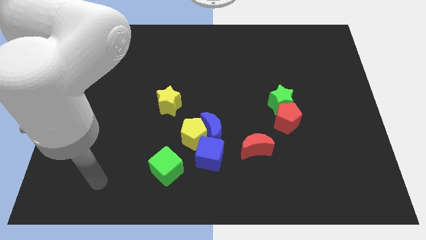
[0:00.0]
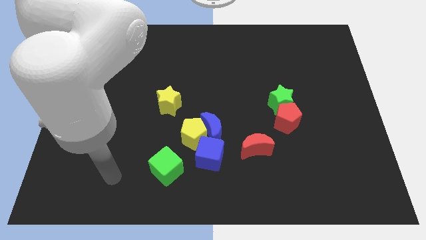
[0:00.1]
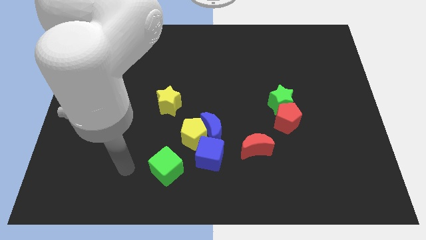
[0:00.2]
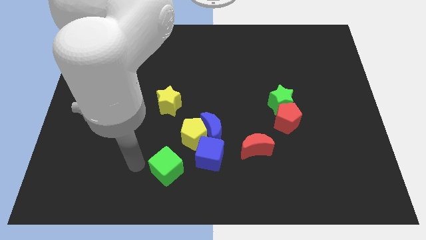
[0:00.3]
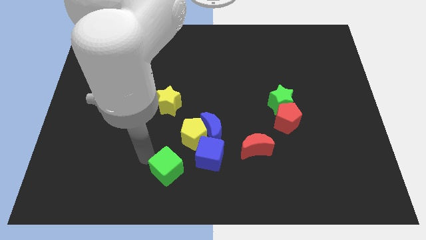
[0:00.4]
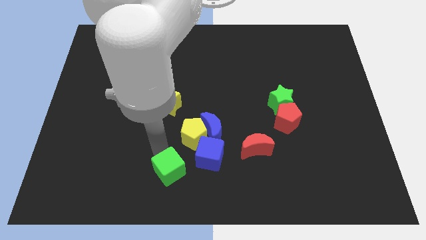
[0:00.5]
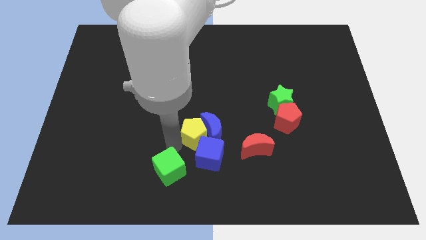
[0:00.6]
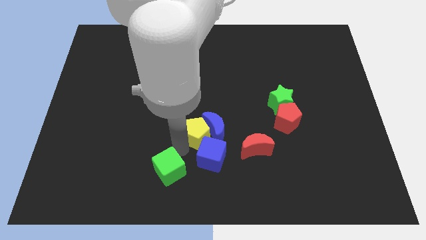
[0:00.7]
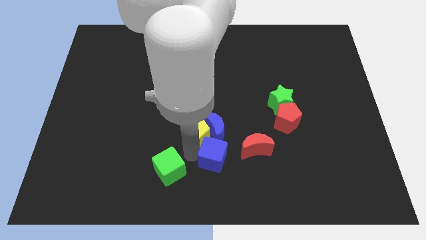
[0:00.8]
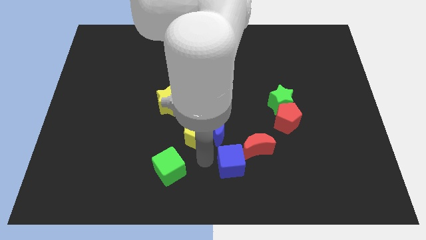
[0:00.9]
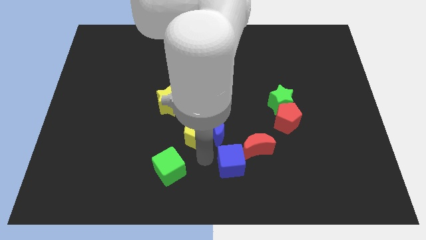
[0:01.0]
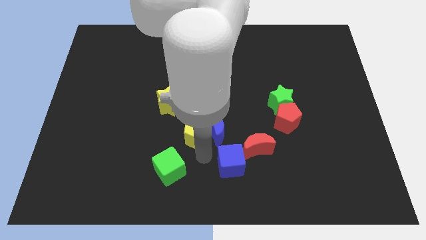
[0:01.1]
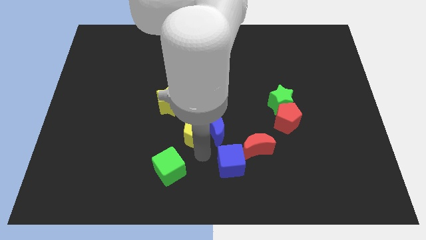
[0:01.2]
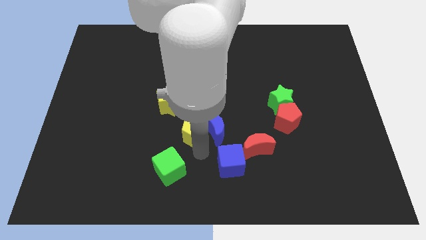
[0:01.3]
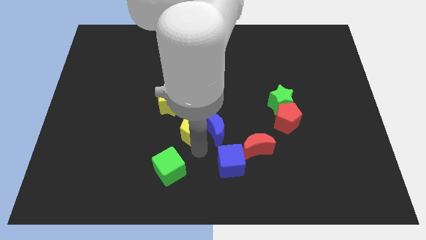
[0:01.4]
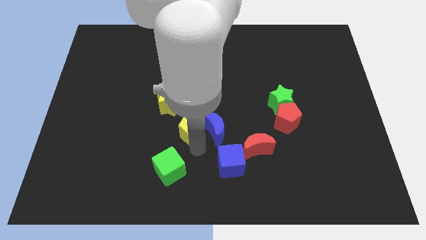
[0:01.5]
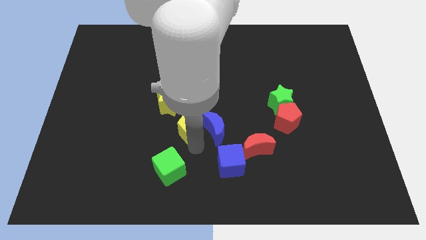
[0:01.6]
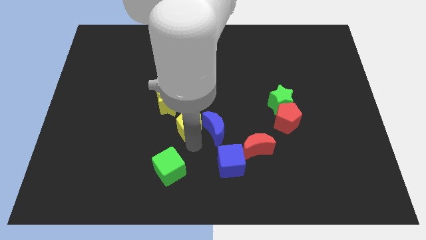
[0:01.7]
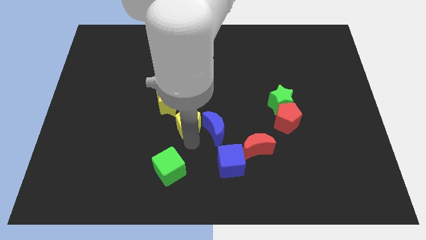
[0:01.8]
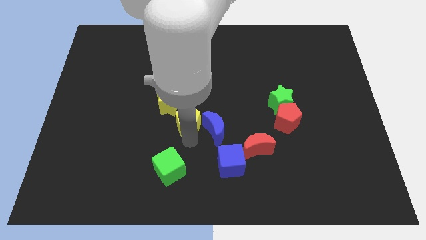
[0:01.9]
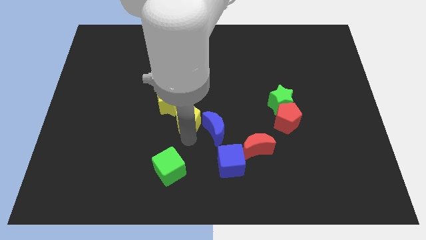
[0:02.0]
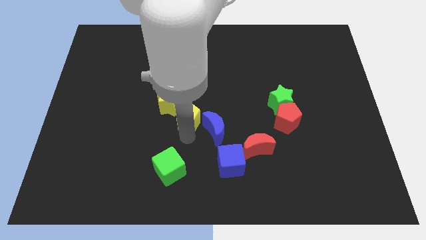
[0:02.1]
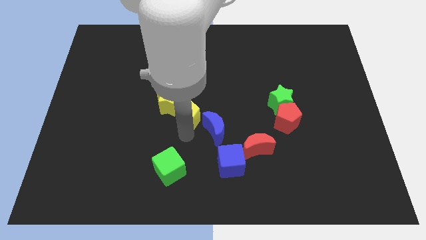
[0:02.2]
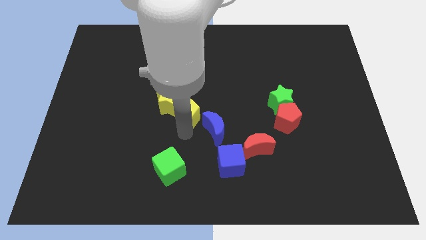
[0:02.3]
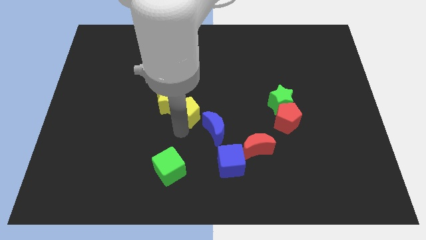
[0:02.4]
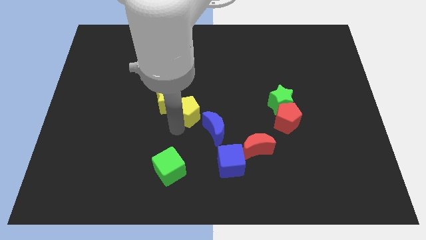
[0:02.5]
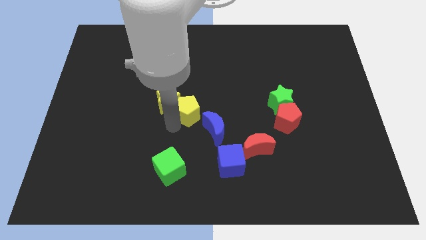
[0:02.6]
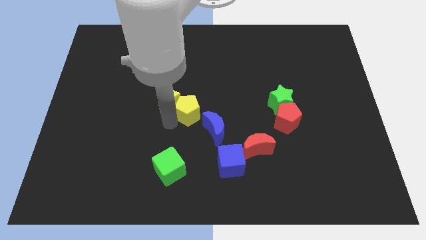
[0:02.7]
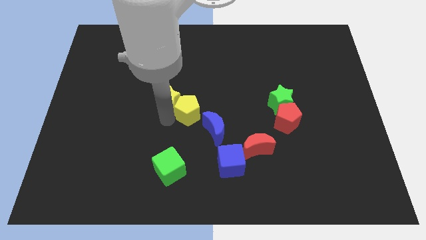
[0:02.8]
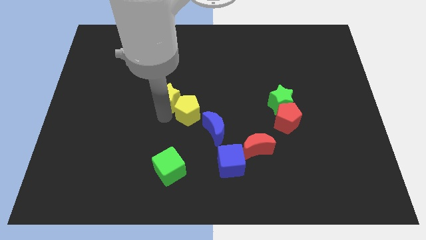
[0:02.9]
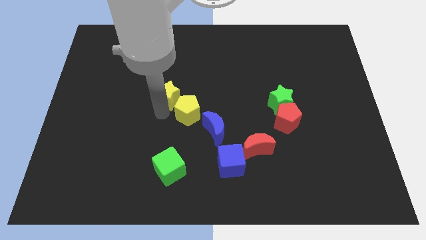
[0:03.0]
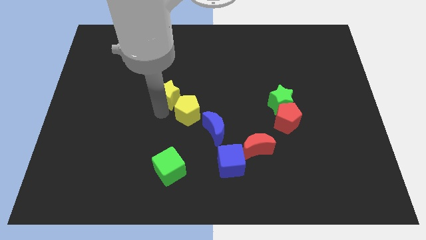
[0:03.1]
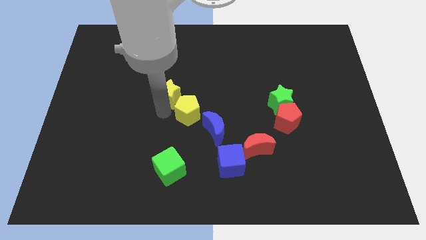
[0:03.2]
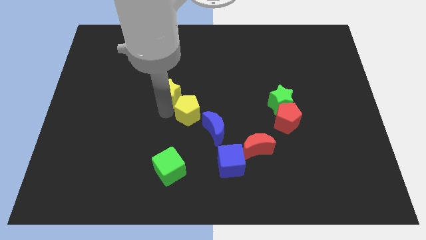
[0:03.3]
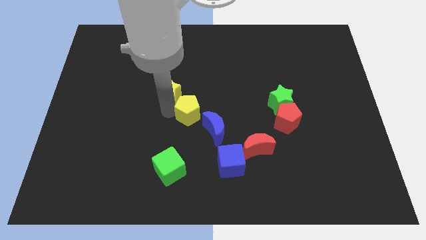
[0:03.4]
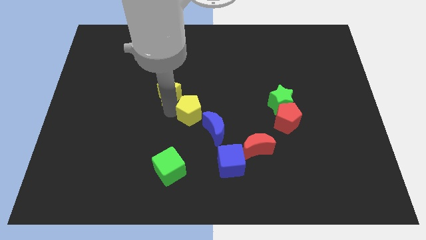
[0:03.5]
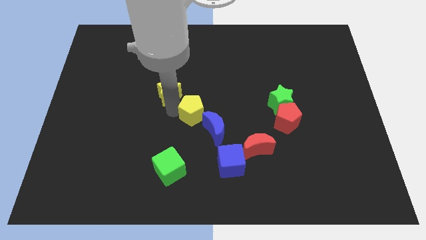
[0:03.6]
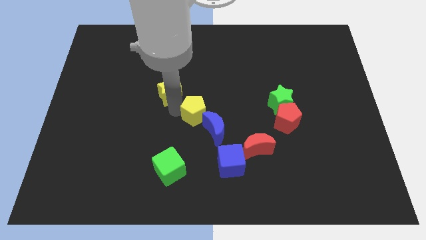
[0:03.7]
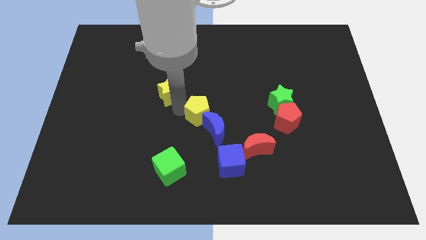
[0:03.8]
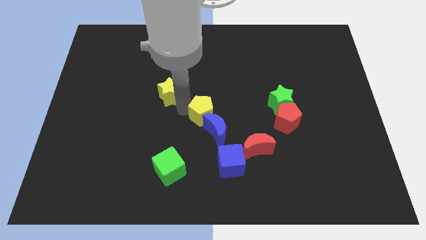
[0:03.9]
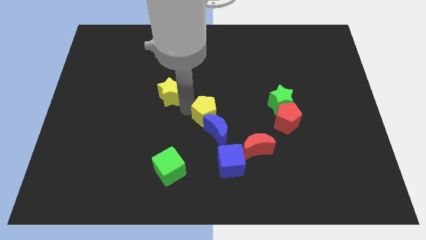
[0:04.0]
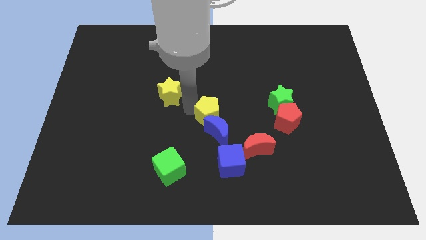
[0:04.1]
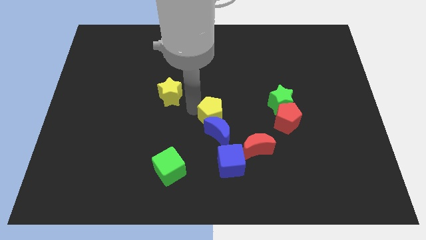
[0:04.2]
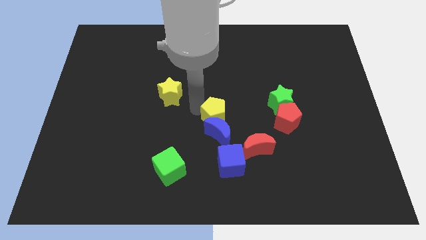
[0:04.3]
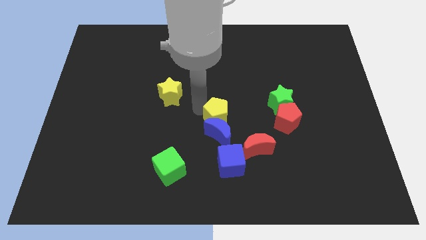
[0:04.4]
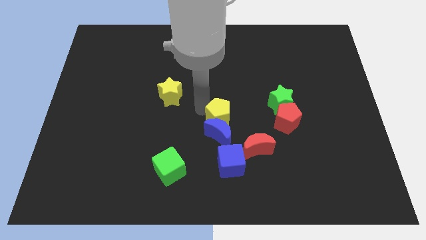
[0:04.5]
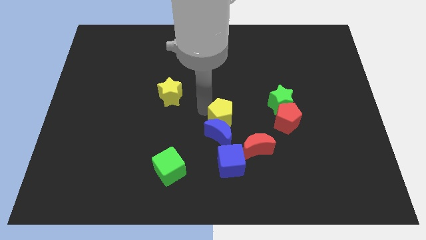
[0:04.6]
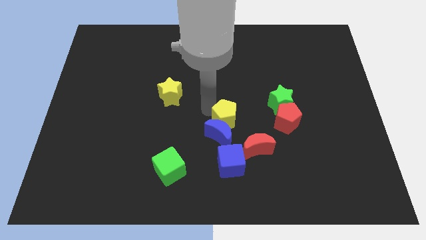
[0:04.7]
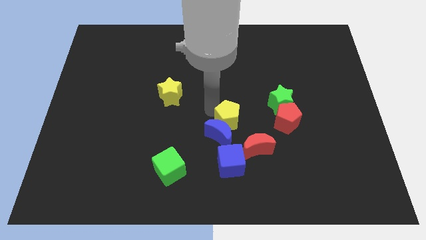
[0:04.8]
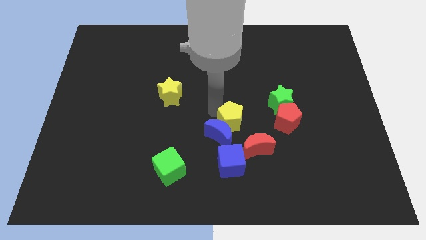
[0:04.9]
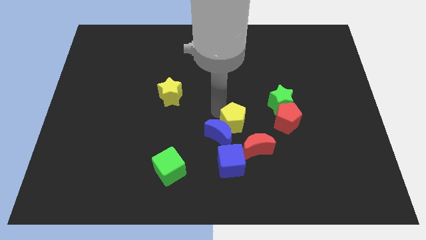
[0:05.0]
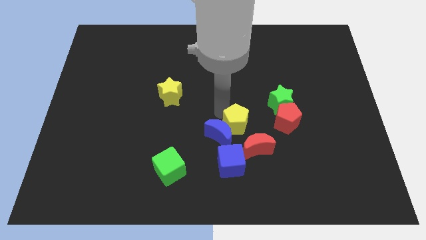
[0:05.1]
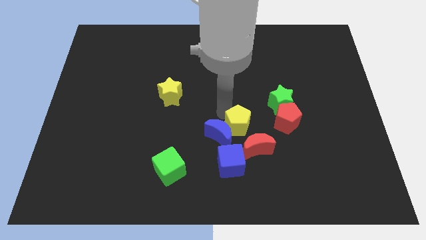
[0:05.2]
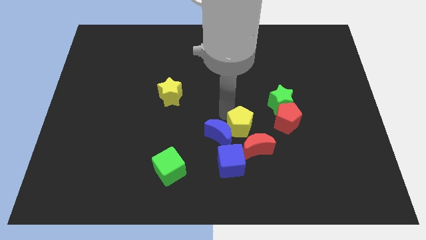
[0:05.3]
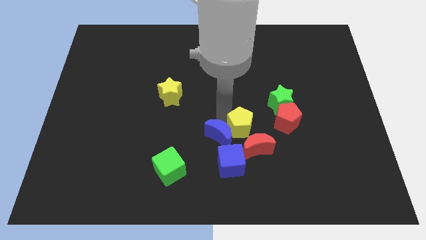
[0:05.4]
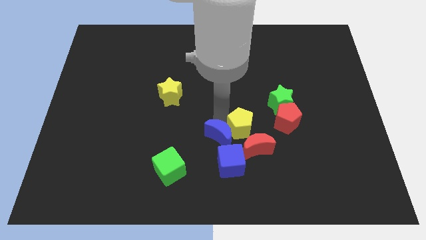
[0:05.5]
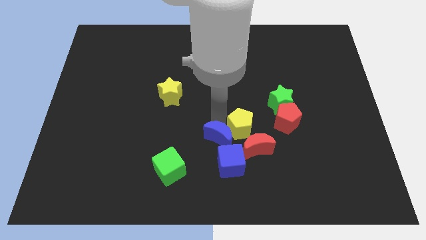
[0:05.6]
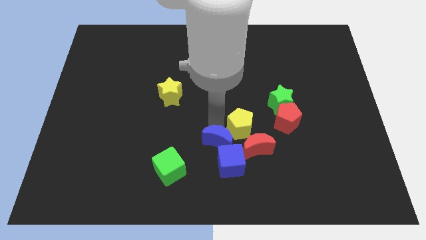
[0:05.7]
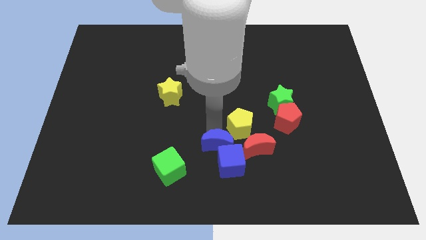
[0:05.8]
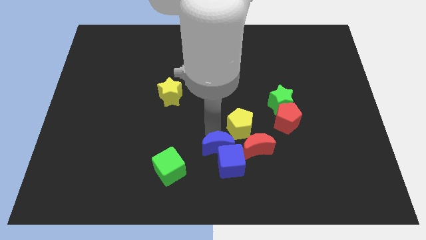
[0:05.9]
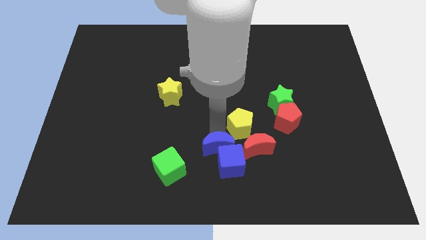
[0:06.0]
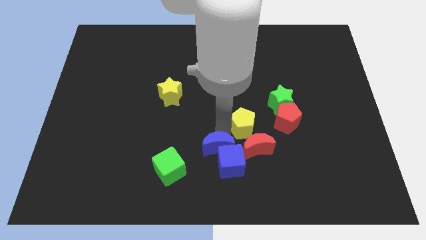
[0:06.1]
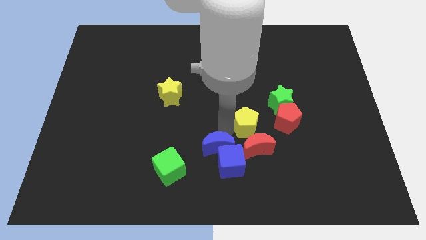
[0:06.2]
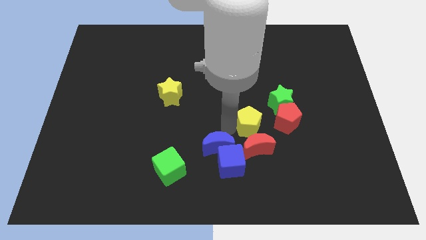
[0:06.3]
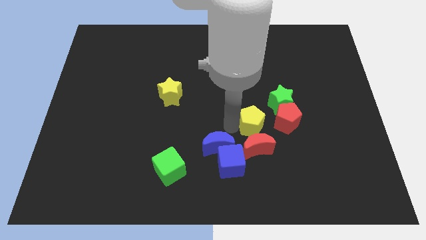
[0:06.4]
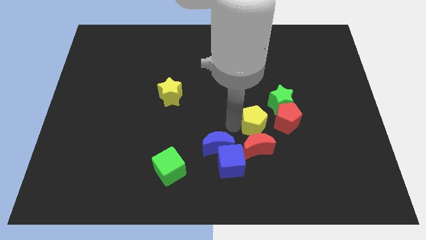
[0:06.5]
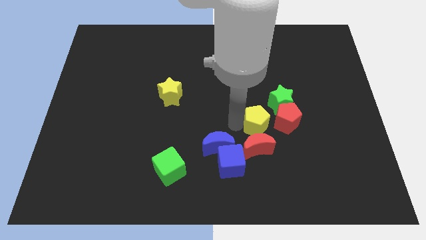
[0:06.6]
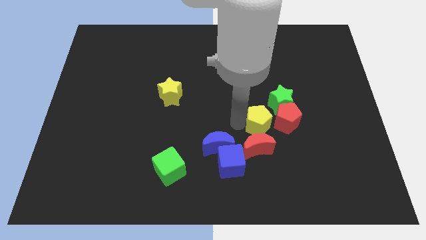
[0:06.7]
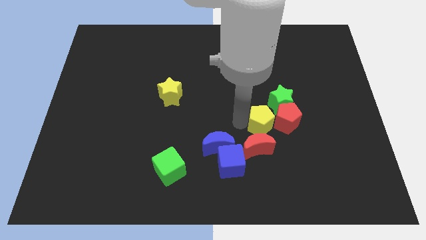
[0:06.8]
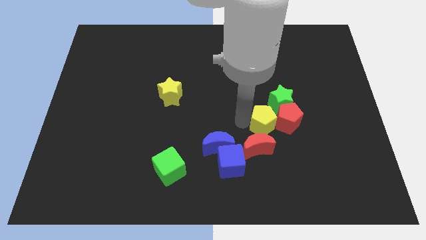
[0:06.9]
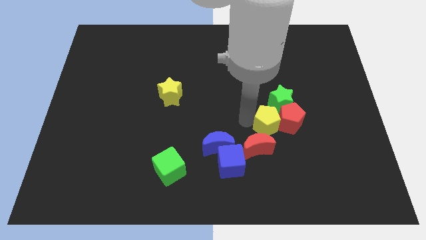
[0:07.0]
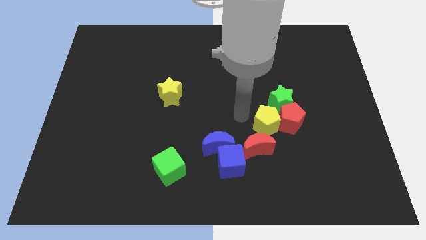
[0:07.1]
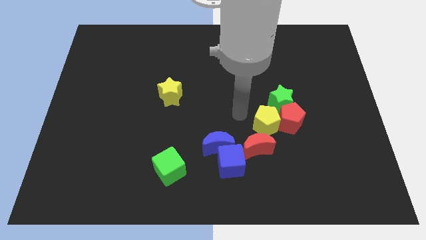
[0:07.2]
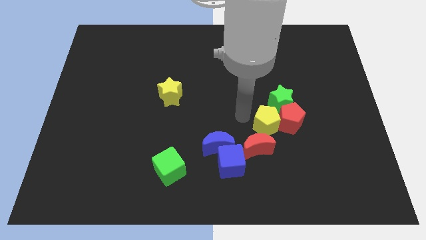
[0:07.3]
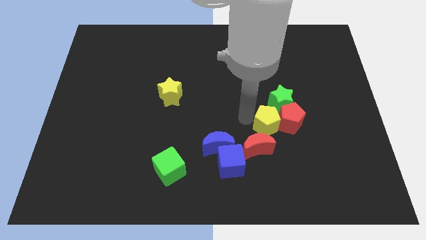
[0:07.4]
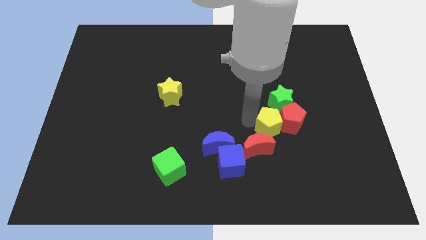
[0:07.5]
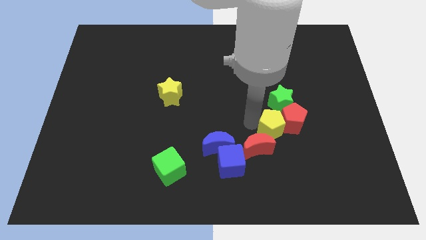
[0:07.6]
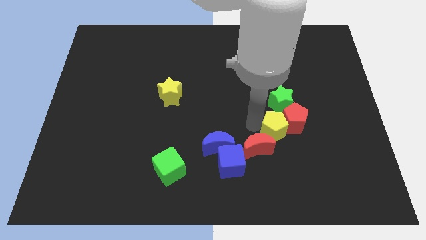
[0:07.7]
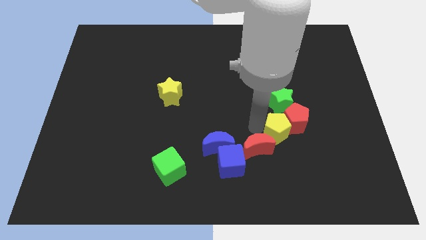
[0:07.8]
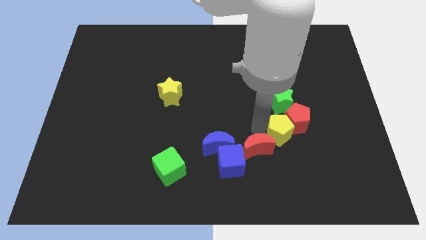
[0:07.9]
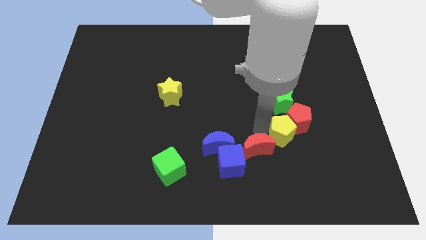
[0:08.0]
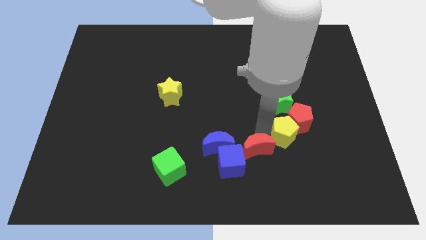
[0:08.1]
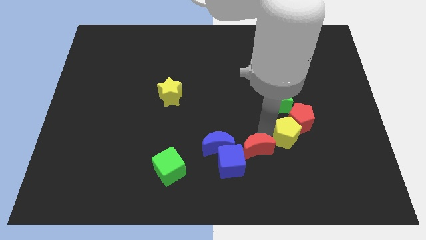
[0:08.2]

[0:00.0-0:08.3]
move the yellow pentagon to the right
